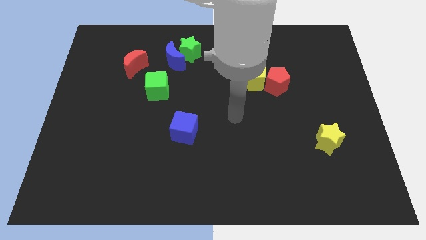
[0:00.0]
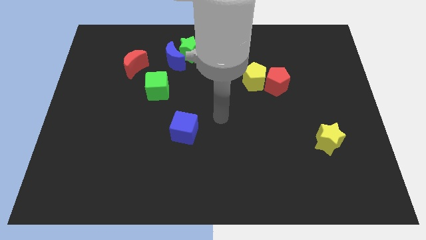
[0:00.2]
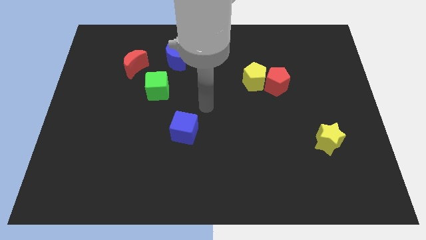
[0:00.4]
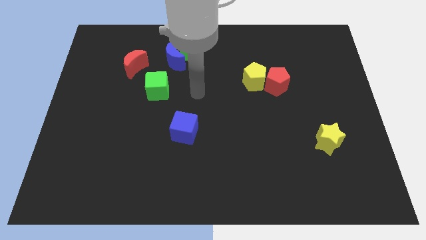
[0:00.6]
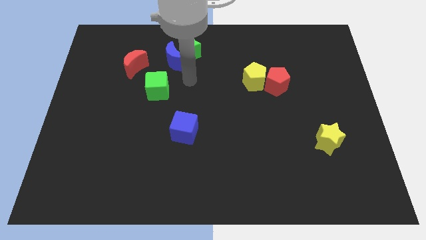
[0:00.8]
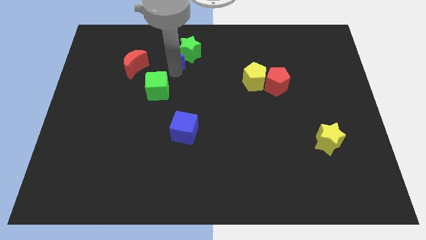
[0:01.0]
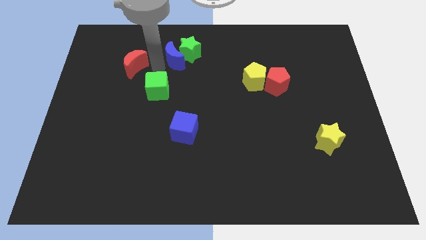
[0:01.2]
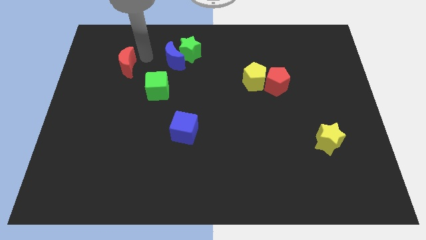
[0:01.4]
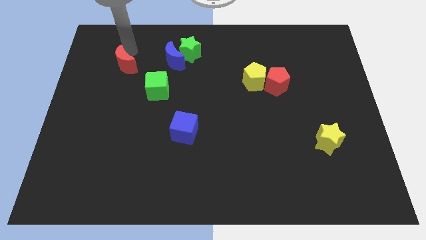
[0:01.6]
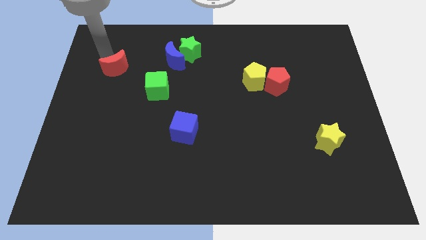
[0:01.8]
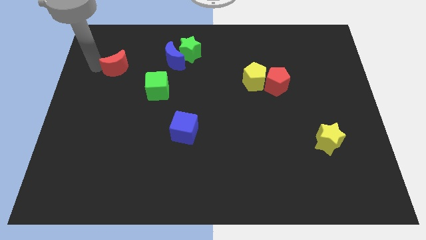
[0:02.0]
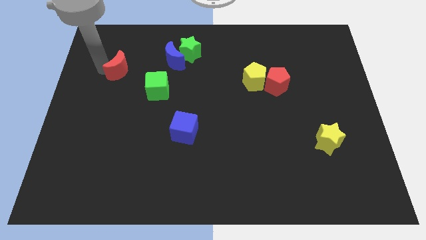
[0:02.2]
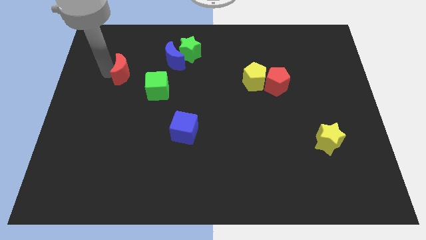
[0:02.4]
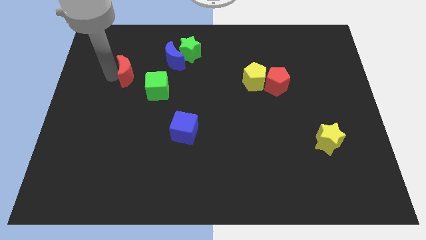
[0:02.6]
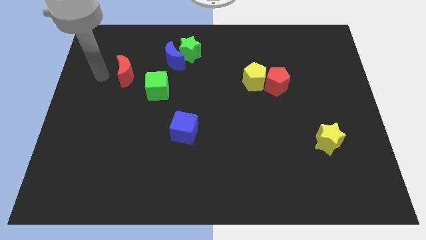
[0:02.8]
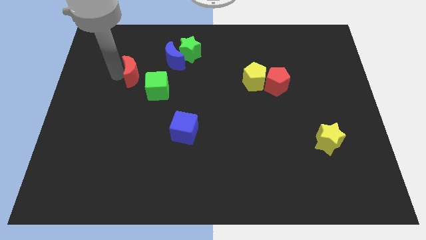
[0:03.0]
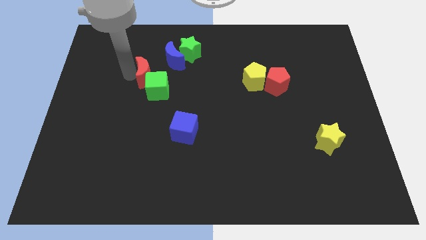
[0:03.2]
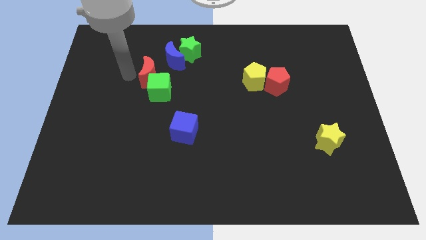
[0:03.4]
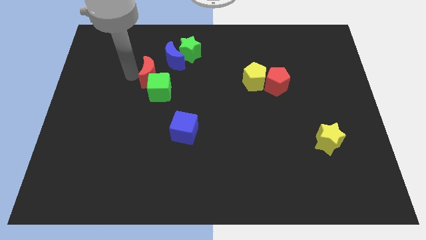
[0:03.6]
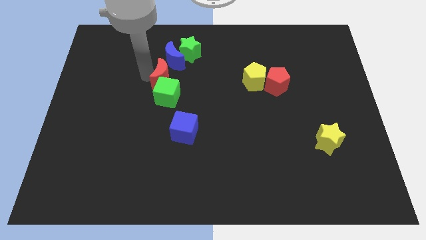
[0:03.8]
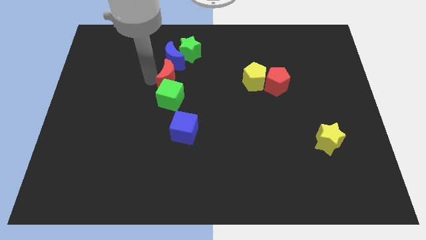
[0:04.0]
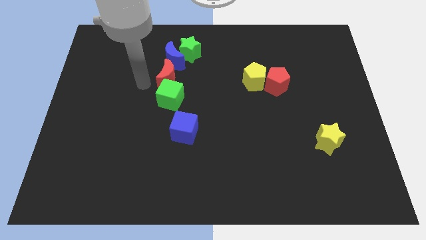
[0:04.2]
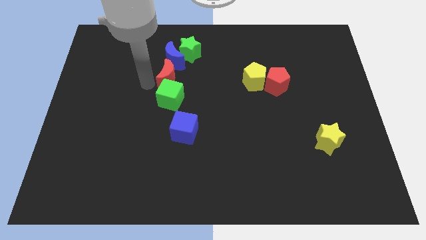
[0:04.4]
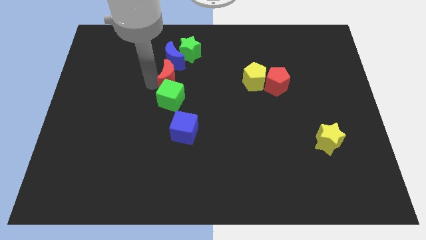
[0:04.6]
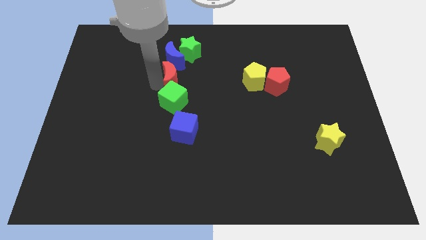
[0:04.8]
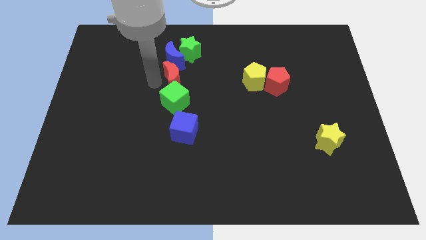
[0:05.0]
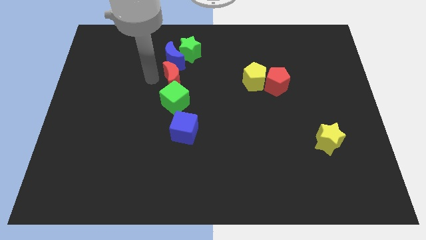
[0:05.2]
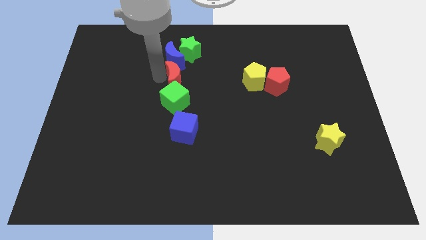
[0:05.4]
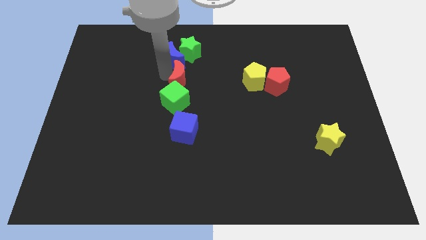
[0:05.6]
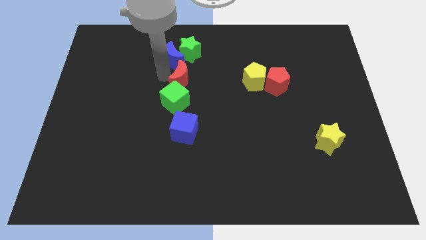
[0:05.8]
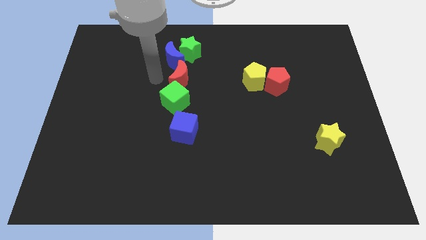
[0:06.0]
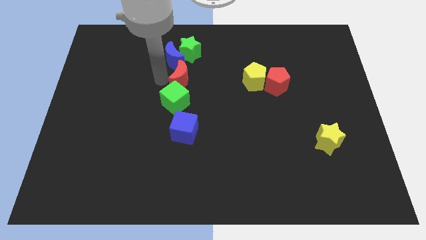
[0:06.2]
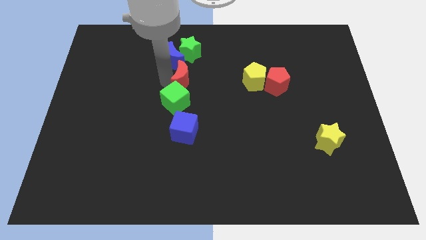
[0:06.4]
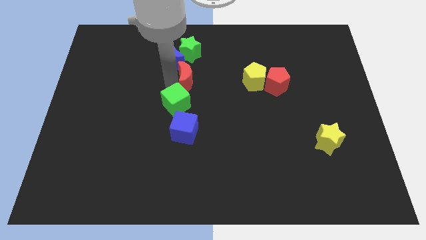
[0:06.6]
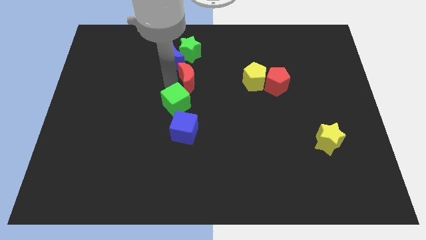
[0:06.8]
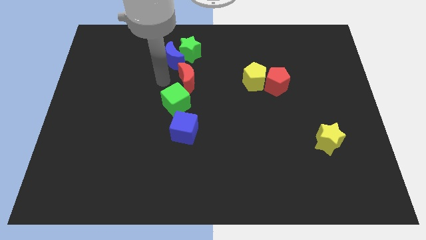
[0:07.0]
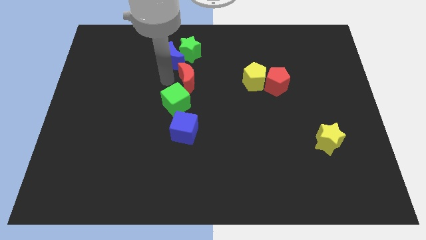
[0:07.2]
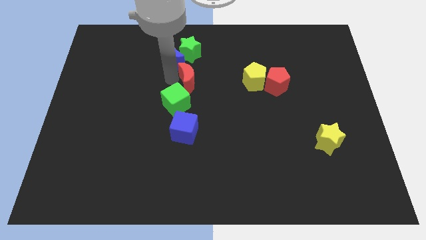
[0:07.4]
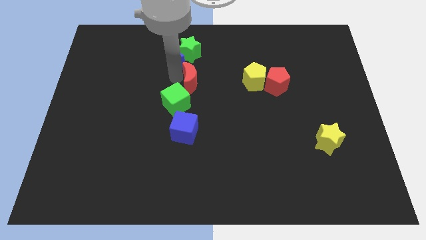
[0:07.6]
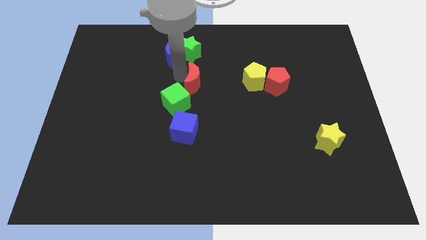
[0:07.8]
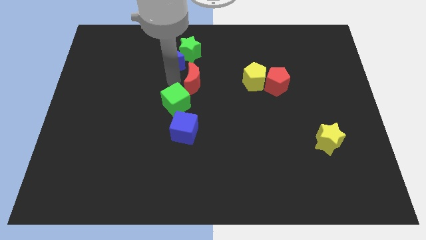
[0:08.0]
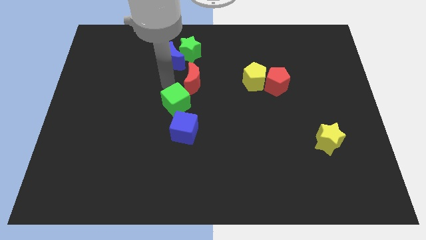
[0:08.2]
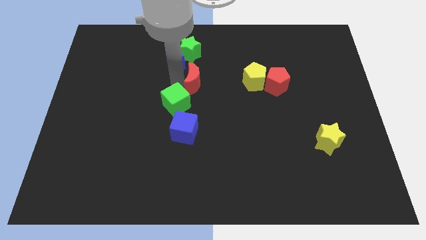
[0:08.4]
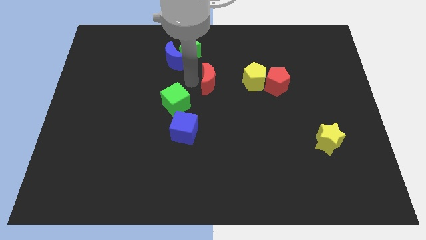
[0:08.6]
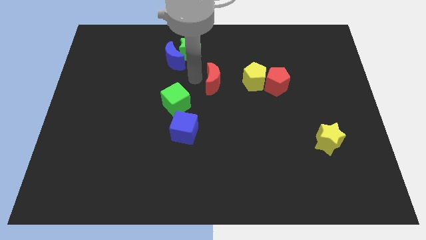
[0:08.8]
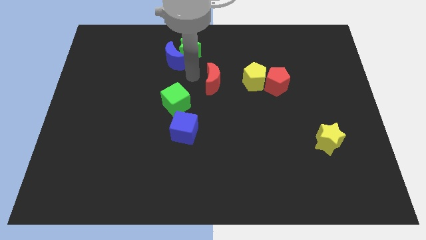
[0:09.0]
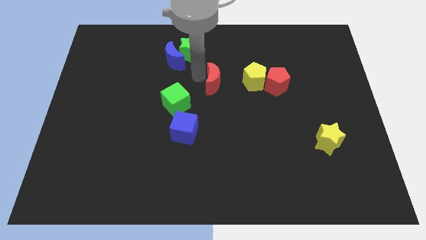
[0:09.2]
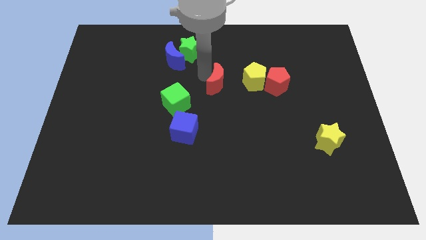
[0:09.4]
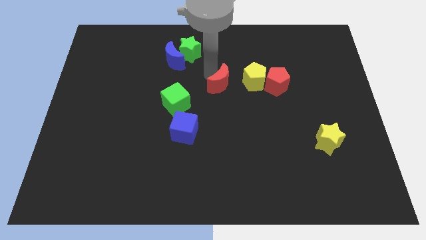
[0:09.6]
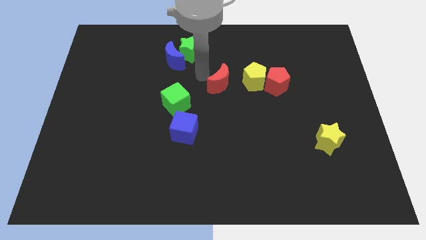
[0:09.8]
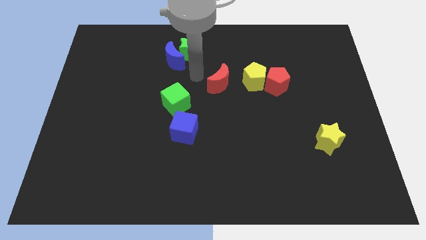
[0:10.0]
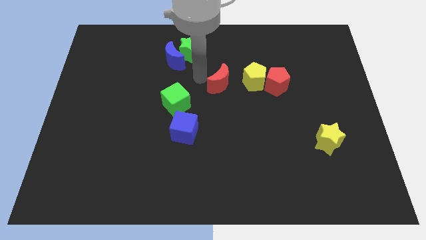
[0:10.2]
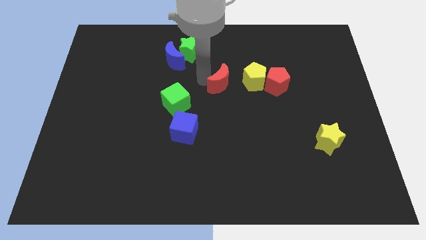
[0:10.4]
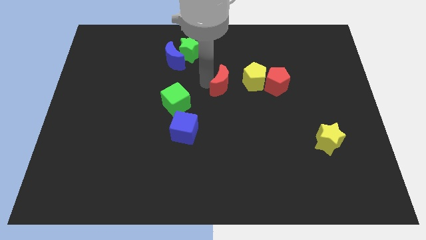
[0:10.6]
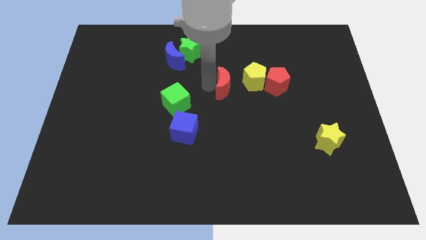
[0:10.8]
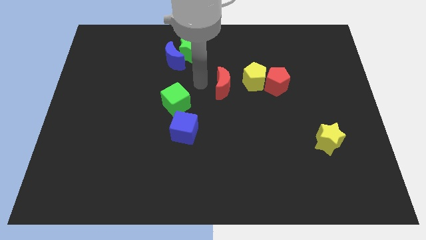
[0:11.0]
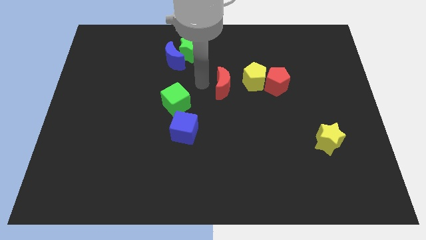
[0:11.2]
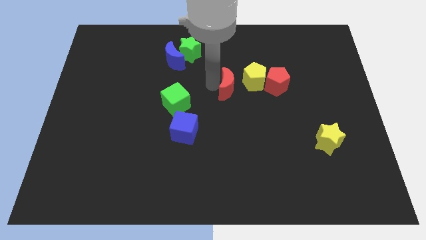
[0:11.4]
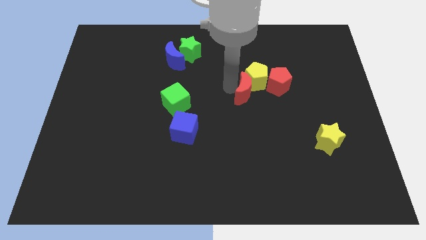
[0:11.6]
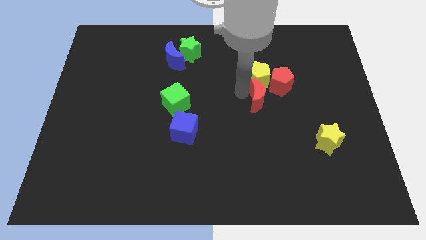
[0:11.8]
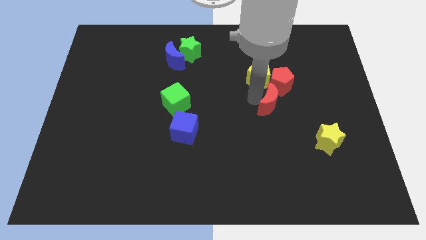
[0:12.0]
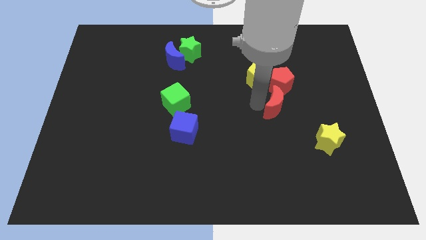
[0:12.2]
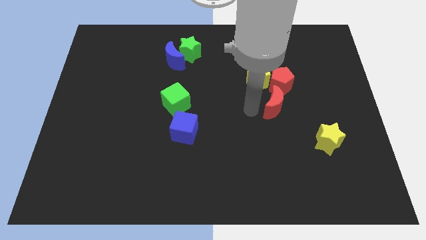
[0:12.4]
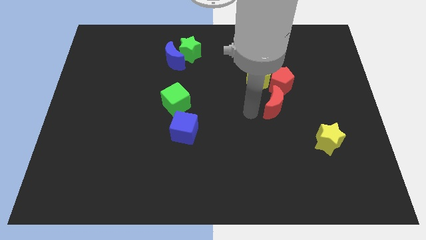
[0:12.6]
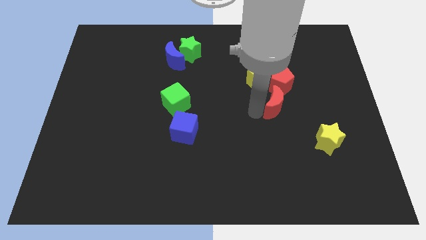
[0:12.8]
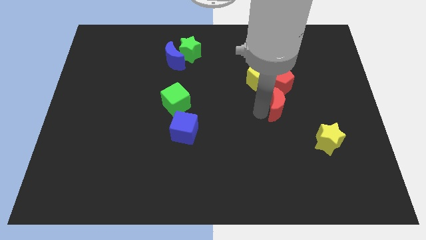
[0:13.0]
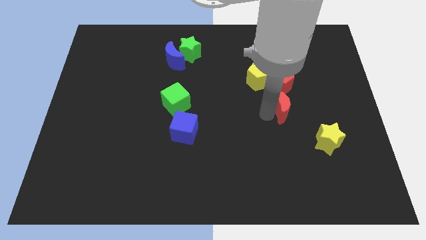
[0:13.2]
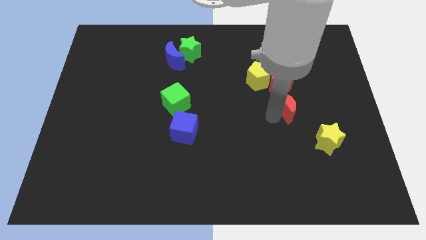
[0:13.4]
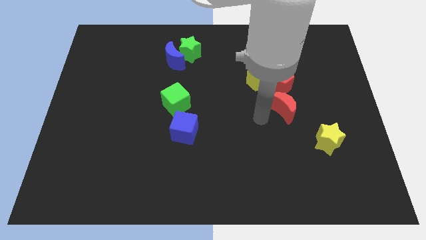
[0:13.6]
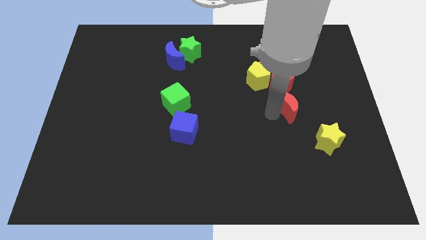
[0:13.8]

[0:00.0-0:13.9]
slide the red moon to the bottom right of the red pentagon
